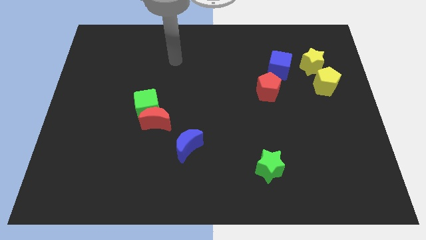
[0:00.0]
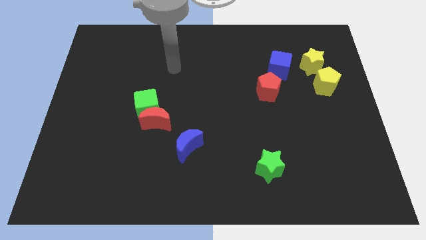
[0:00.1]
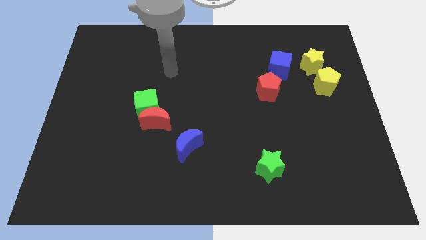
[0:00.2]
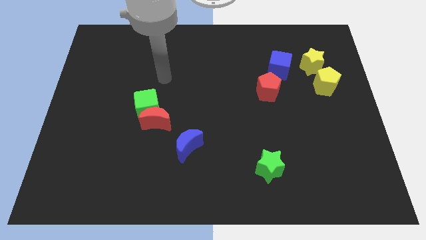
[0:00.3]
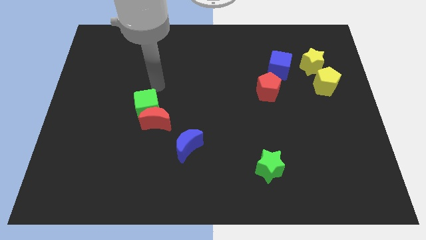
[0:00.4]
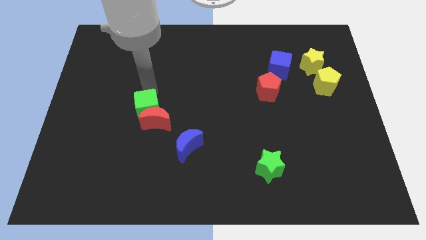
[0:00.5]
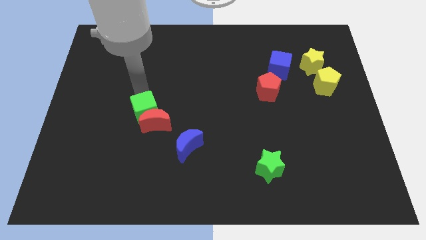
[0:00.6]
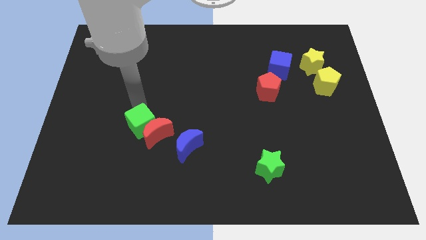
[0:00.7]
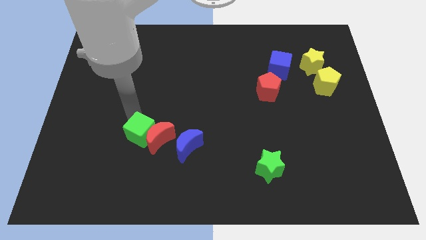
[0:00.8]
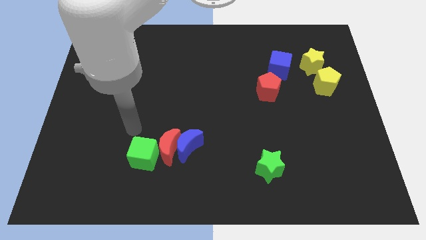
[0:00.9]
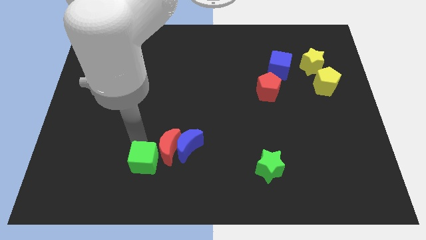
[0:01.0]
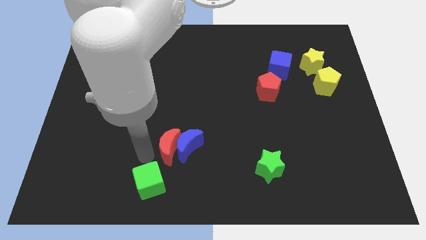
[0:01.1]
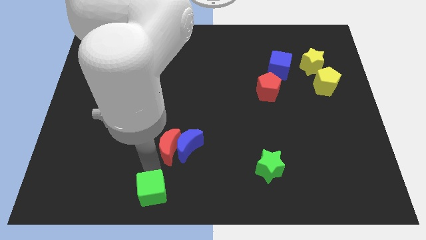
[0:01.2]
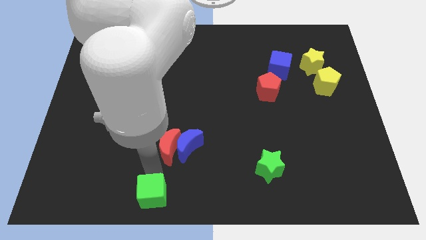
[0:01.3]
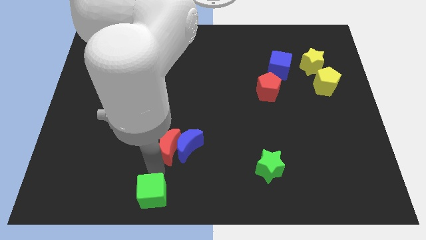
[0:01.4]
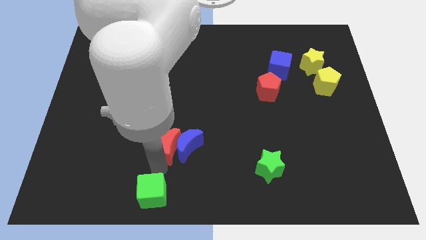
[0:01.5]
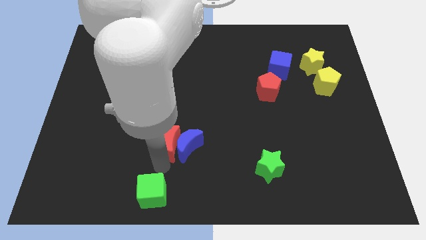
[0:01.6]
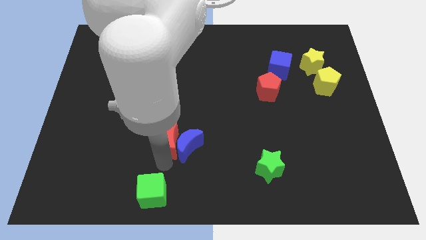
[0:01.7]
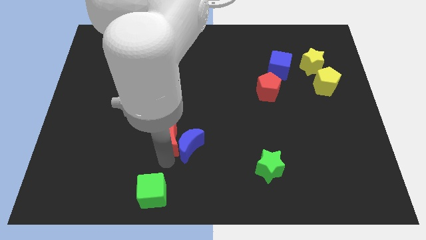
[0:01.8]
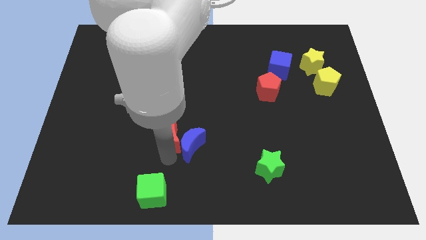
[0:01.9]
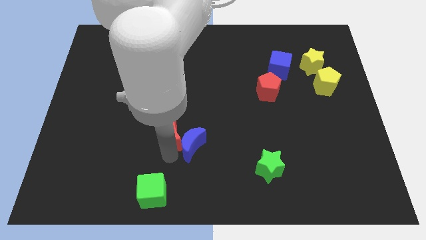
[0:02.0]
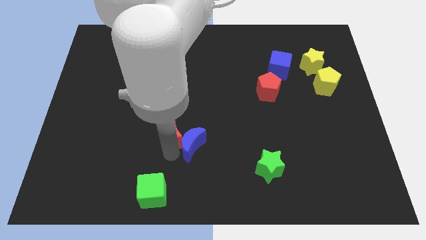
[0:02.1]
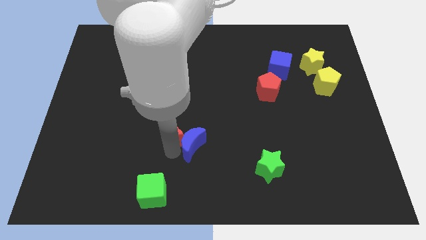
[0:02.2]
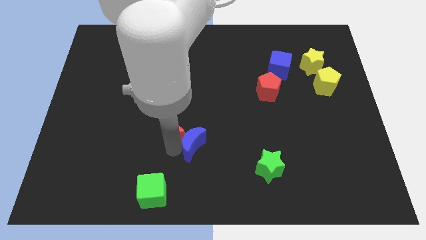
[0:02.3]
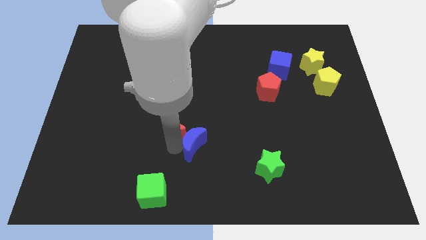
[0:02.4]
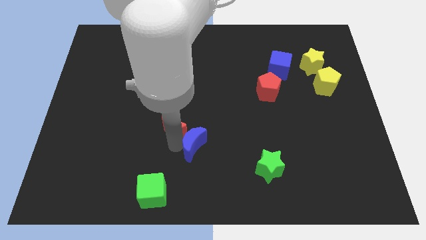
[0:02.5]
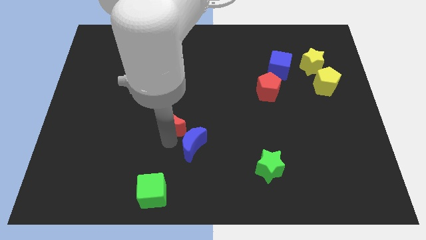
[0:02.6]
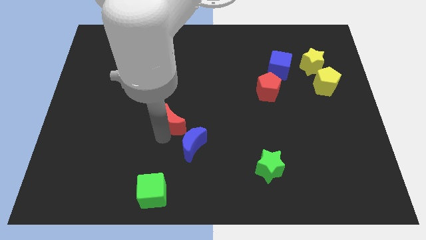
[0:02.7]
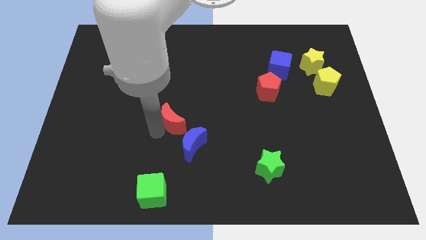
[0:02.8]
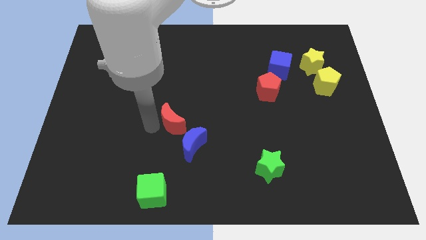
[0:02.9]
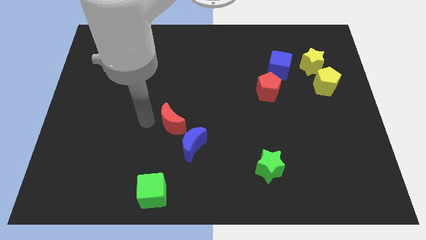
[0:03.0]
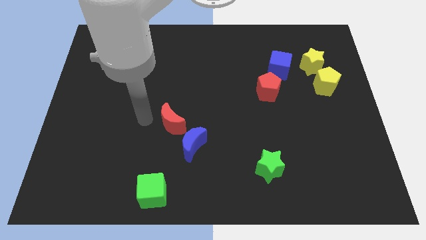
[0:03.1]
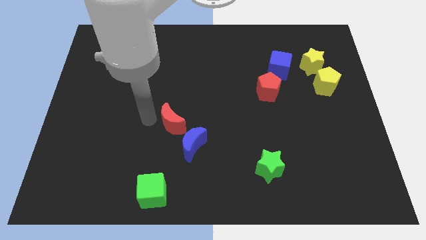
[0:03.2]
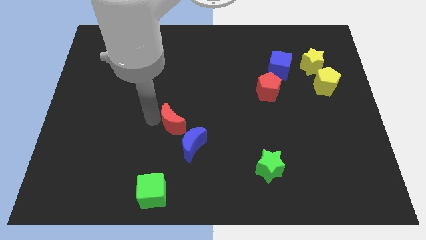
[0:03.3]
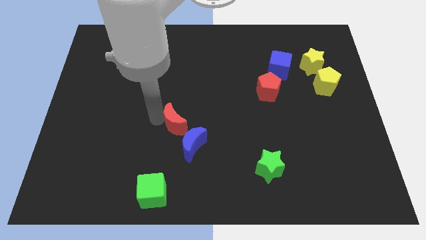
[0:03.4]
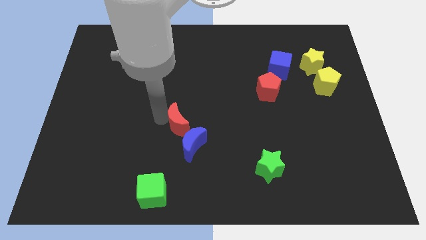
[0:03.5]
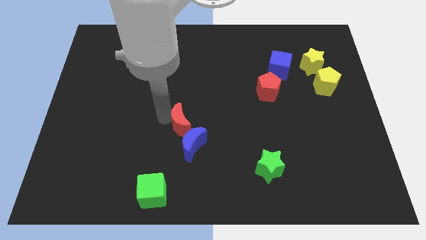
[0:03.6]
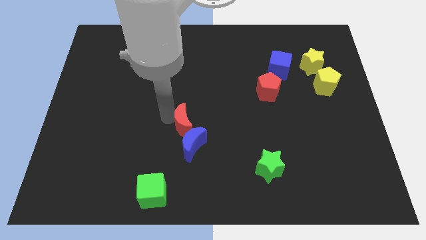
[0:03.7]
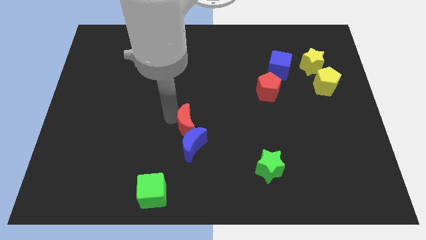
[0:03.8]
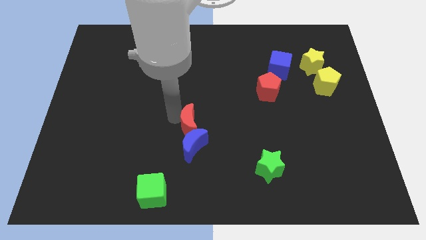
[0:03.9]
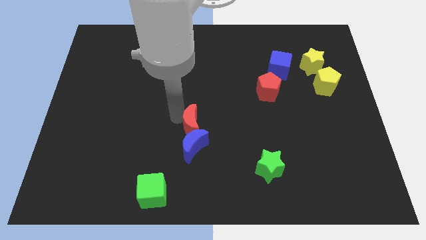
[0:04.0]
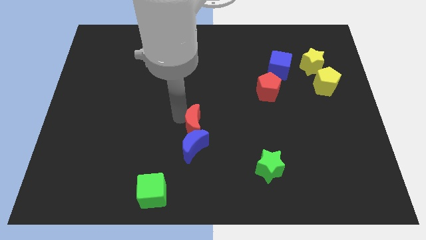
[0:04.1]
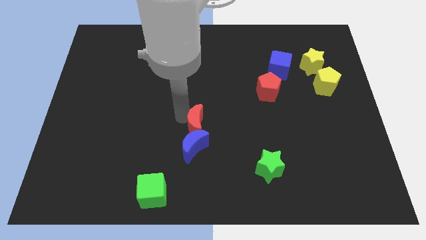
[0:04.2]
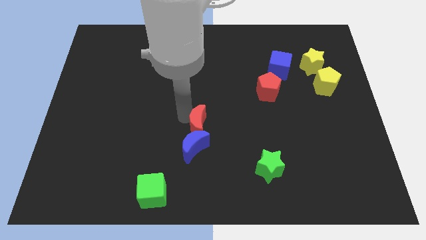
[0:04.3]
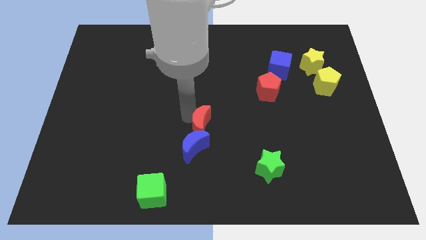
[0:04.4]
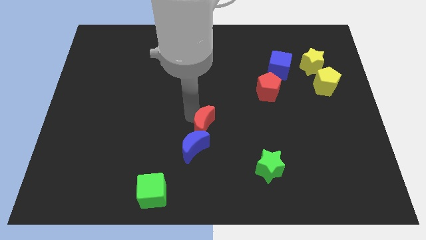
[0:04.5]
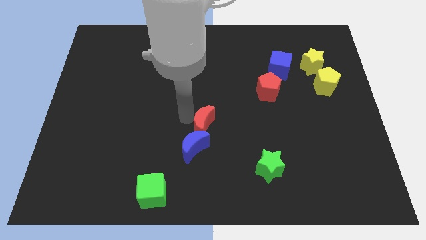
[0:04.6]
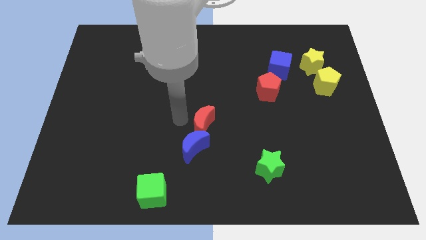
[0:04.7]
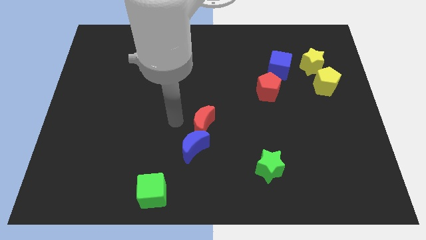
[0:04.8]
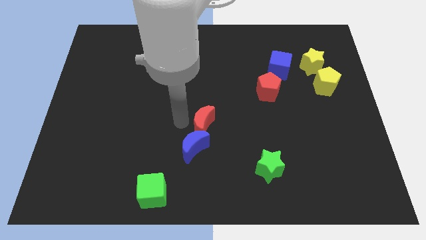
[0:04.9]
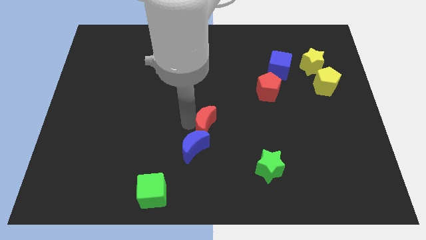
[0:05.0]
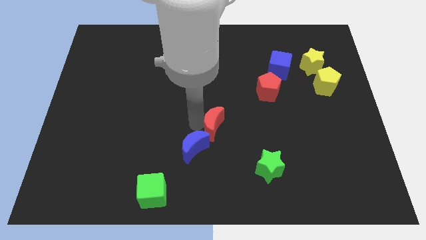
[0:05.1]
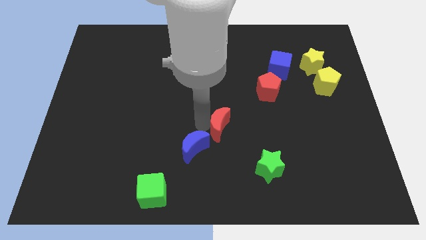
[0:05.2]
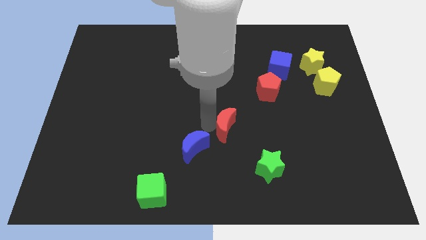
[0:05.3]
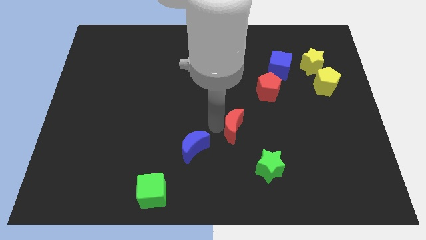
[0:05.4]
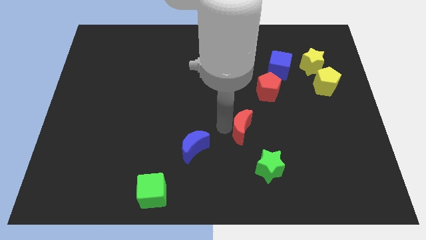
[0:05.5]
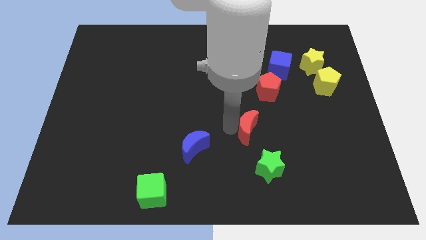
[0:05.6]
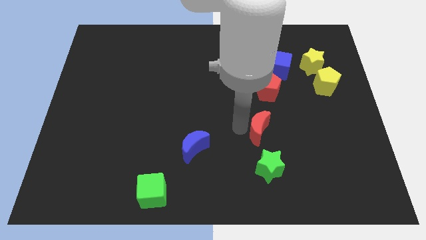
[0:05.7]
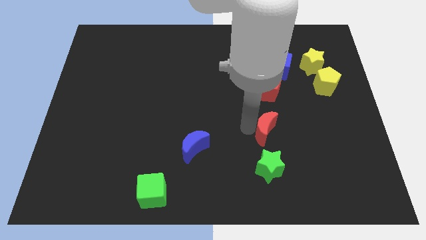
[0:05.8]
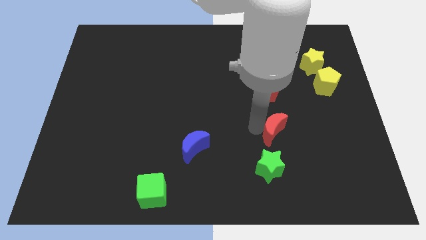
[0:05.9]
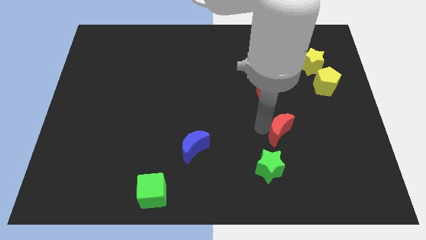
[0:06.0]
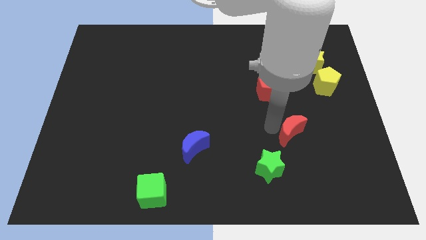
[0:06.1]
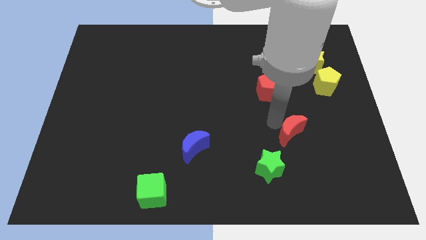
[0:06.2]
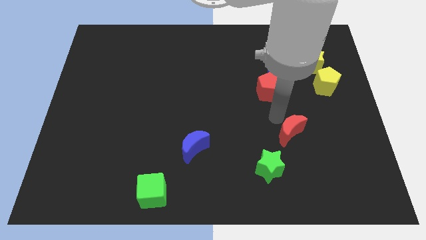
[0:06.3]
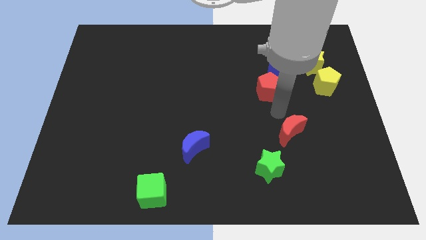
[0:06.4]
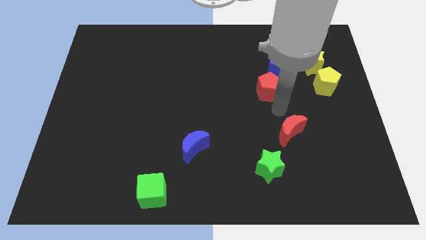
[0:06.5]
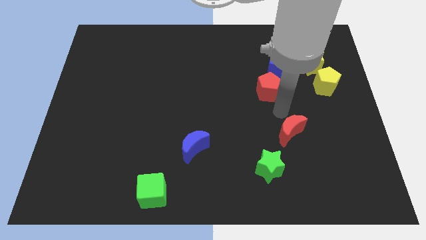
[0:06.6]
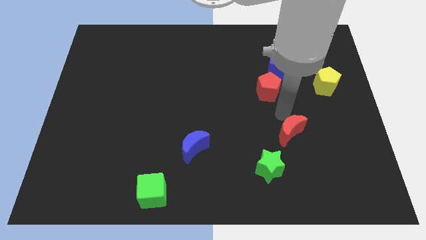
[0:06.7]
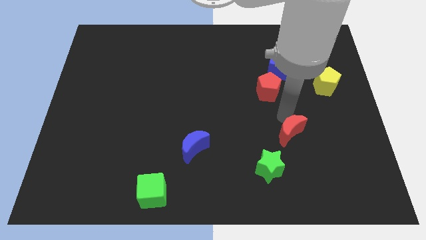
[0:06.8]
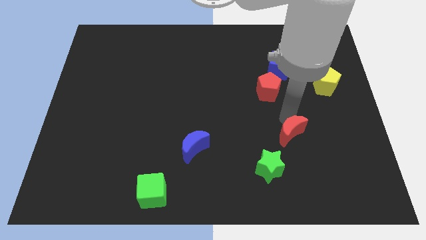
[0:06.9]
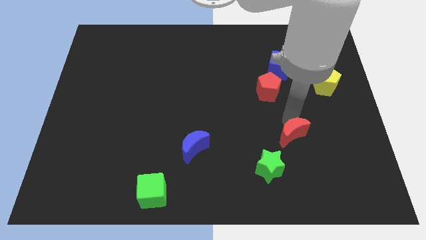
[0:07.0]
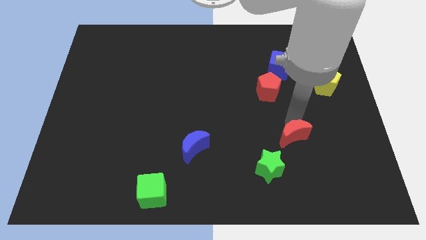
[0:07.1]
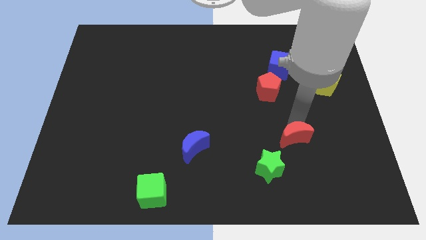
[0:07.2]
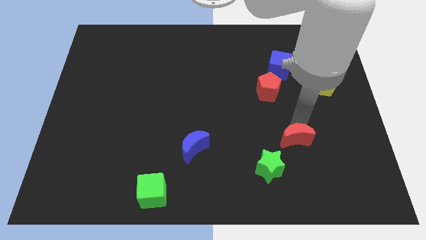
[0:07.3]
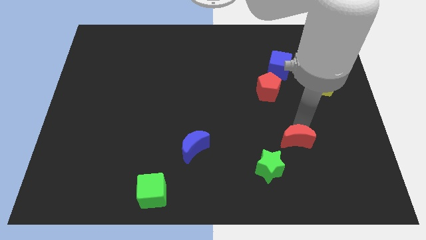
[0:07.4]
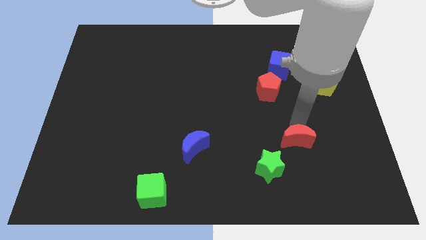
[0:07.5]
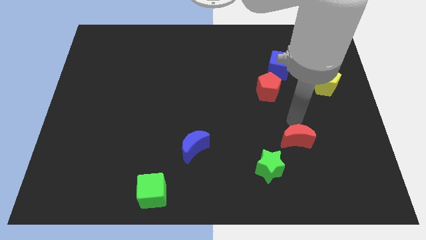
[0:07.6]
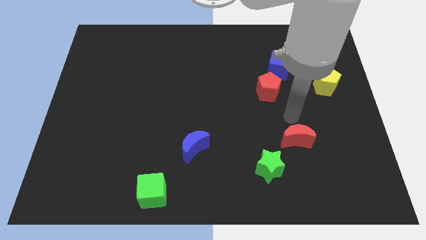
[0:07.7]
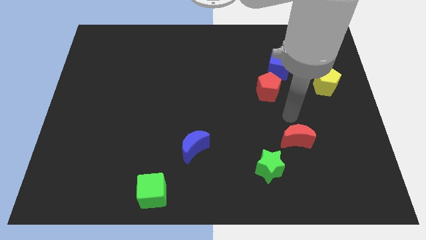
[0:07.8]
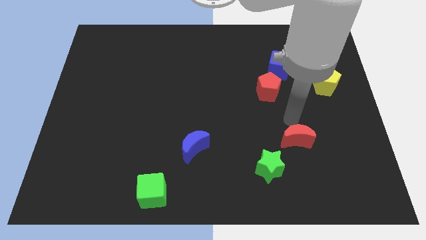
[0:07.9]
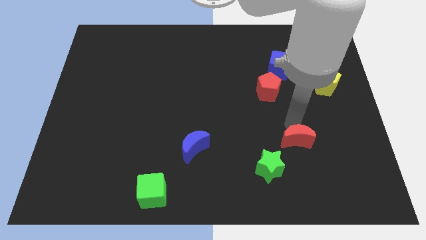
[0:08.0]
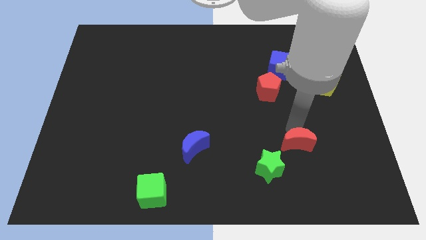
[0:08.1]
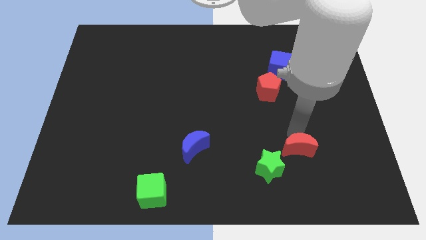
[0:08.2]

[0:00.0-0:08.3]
push the red moon just right of the green star
